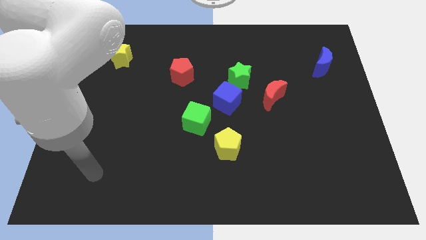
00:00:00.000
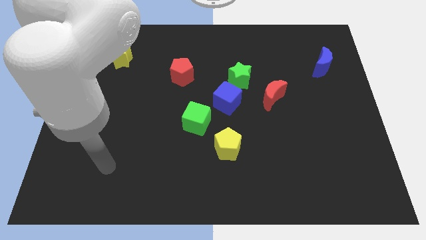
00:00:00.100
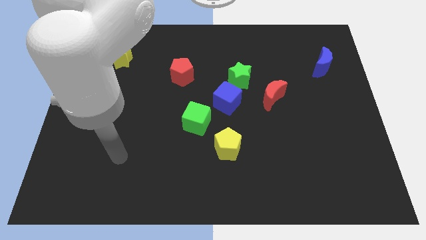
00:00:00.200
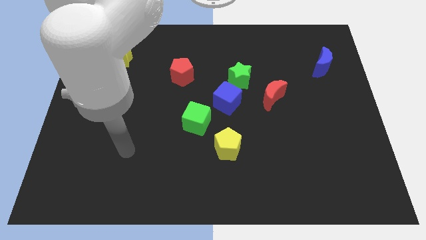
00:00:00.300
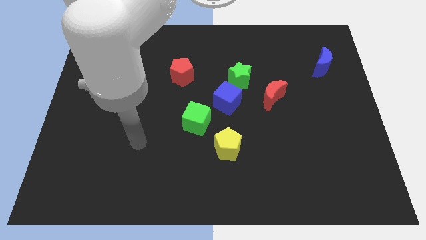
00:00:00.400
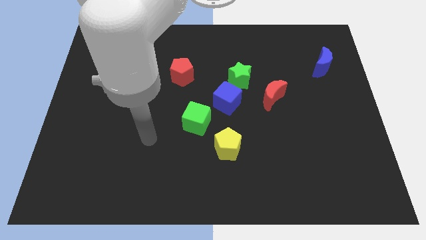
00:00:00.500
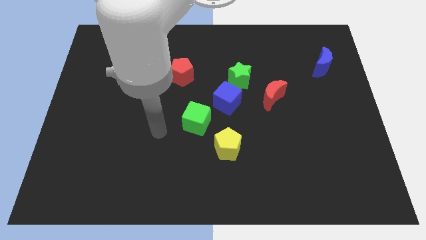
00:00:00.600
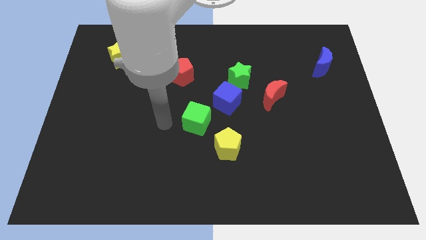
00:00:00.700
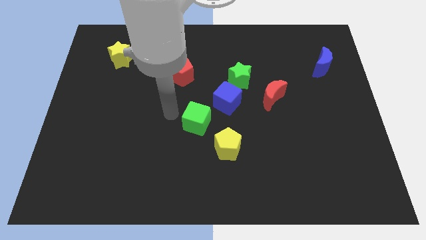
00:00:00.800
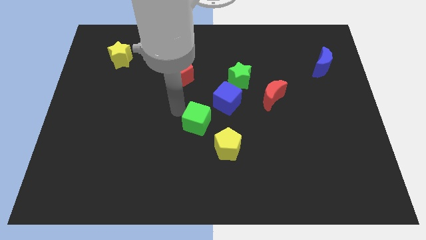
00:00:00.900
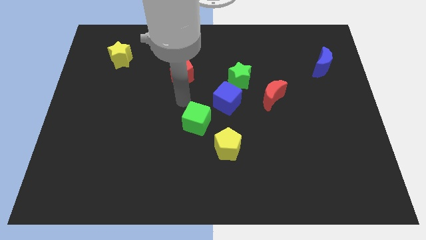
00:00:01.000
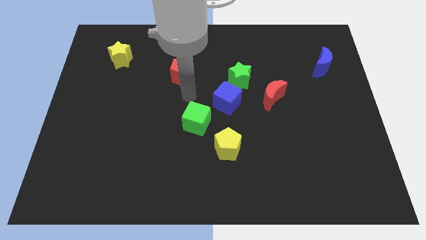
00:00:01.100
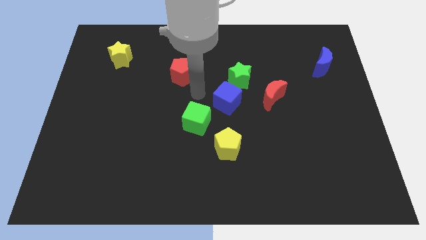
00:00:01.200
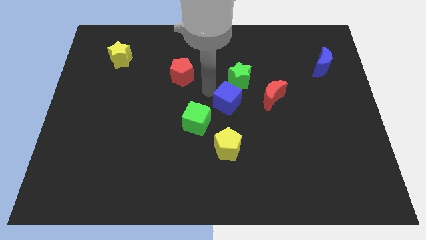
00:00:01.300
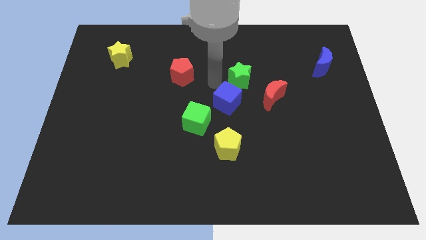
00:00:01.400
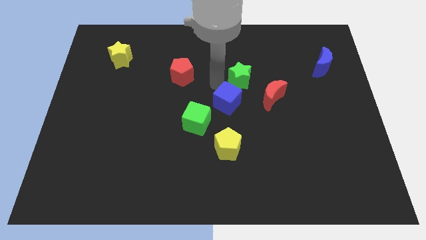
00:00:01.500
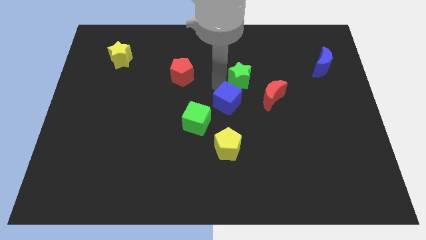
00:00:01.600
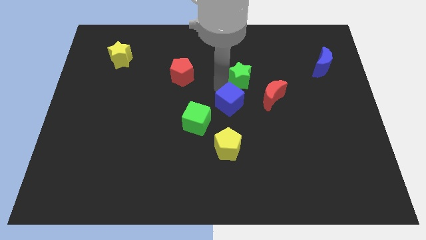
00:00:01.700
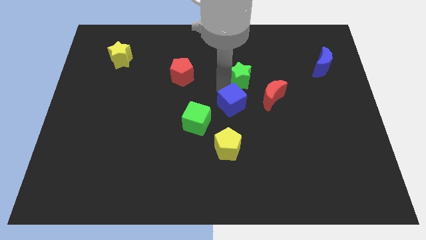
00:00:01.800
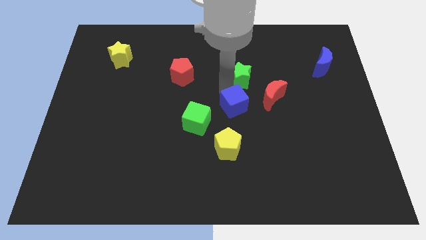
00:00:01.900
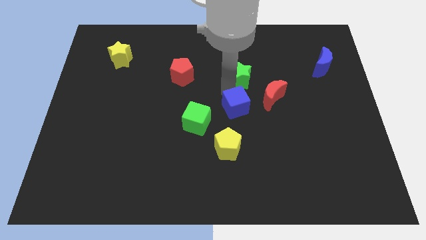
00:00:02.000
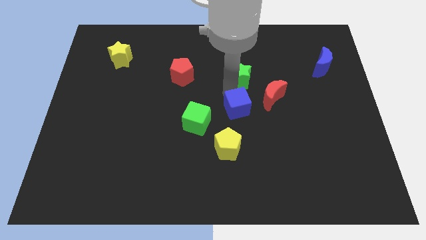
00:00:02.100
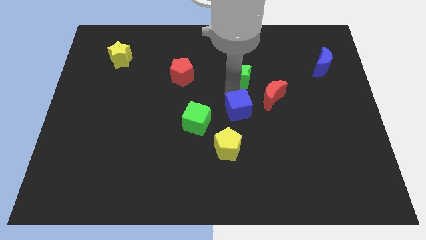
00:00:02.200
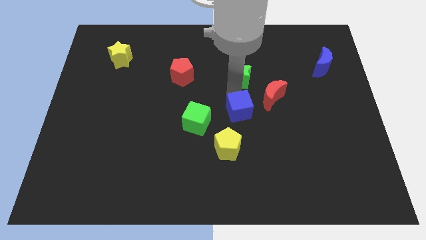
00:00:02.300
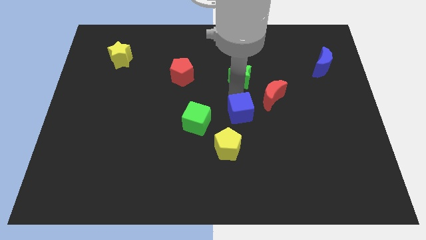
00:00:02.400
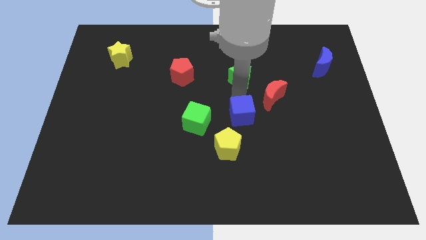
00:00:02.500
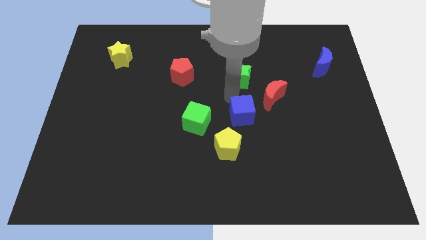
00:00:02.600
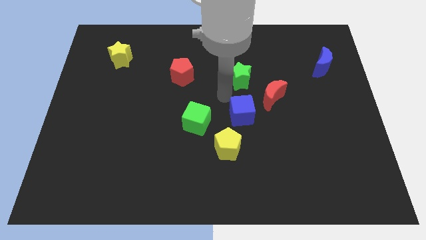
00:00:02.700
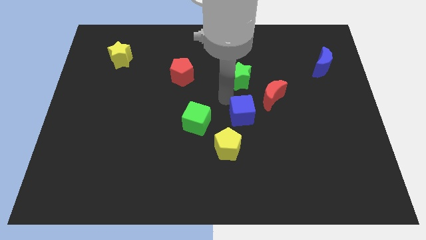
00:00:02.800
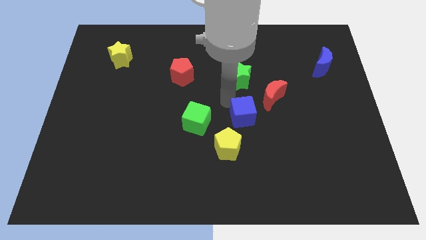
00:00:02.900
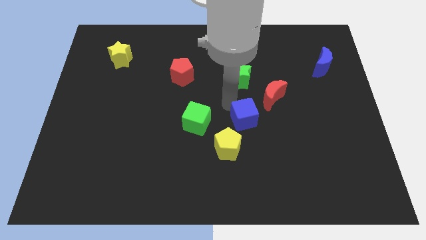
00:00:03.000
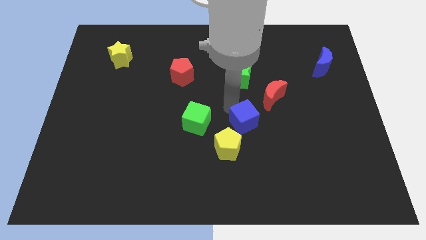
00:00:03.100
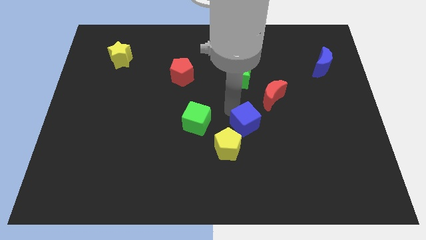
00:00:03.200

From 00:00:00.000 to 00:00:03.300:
move the blue cube downwards and to the right a little

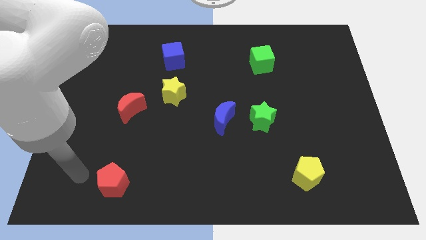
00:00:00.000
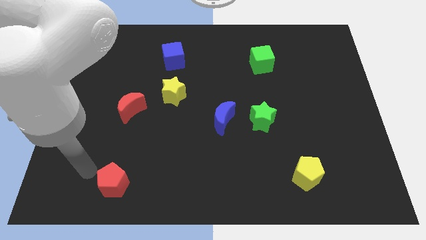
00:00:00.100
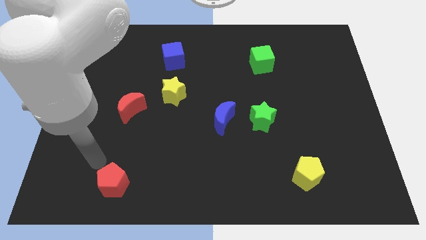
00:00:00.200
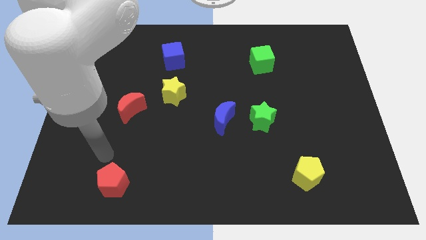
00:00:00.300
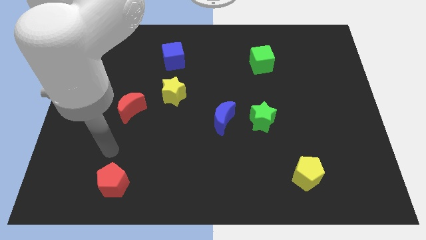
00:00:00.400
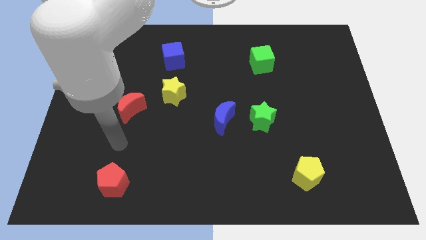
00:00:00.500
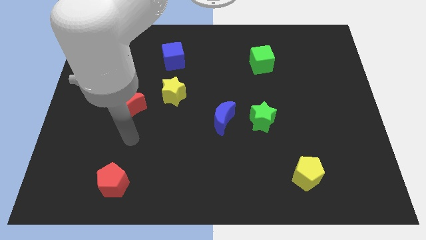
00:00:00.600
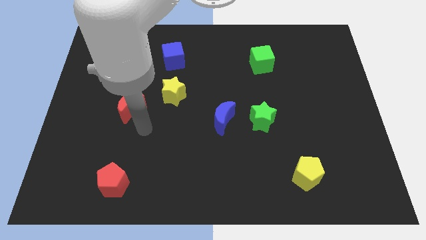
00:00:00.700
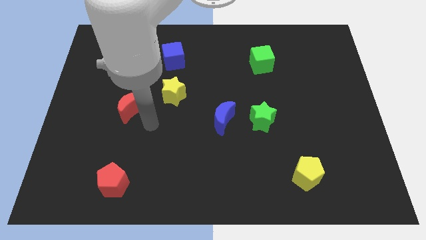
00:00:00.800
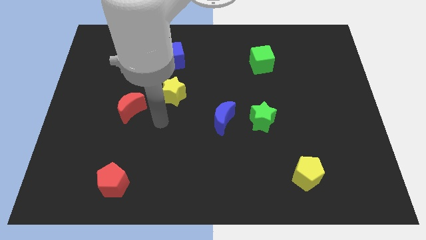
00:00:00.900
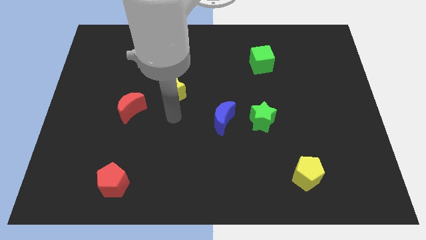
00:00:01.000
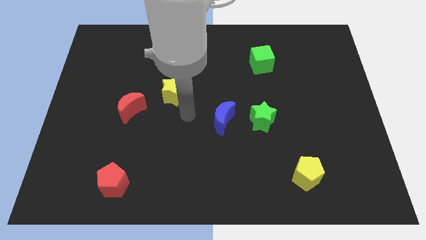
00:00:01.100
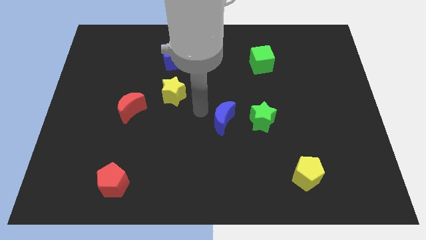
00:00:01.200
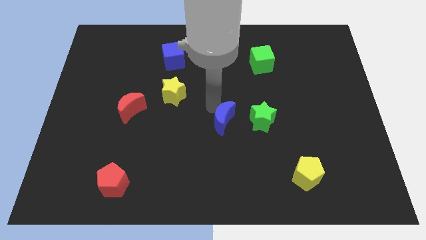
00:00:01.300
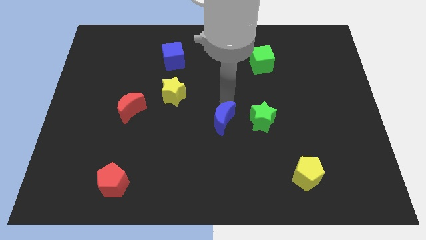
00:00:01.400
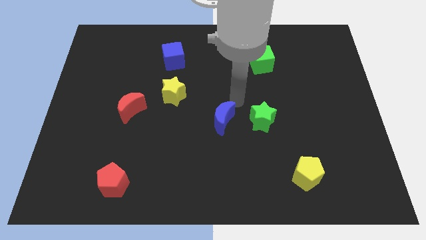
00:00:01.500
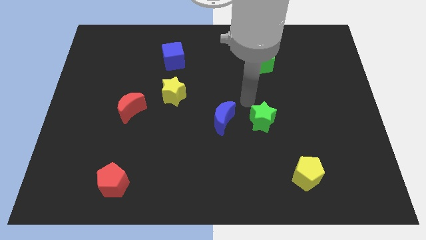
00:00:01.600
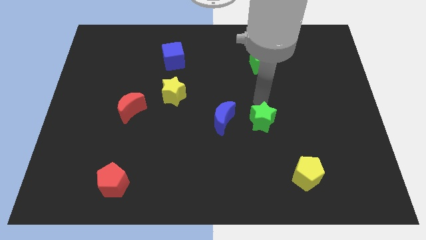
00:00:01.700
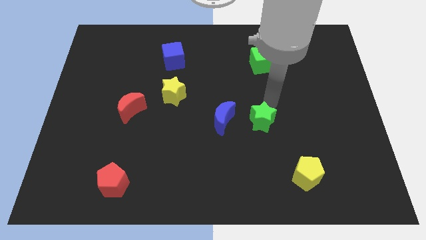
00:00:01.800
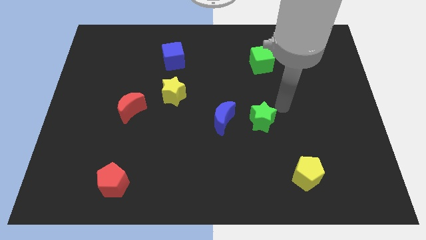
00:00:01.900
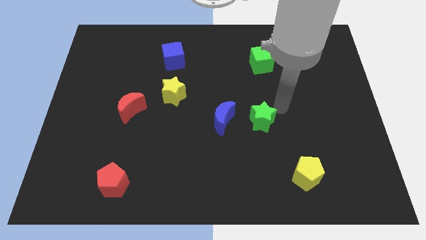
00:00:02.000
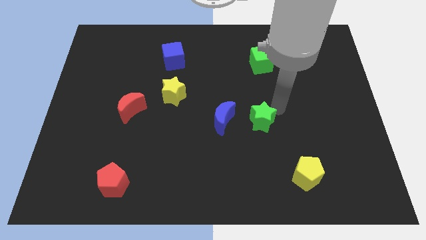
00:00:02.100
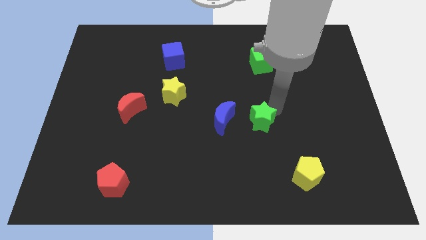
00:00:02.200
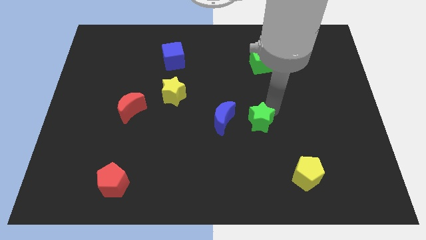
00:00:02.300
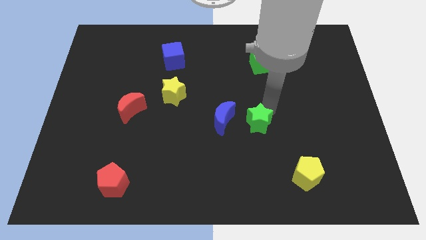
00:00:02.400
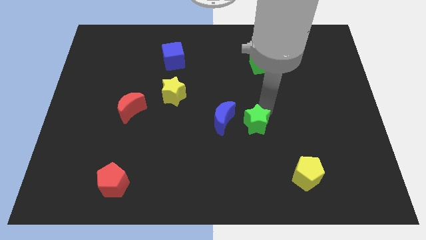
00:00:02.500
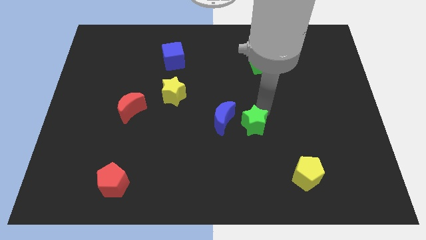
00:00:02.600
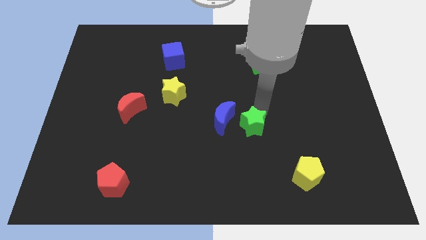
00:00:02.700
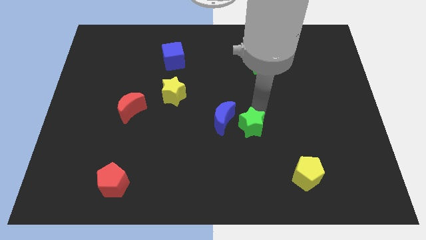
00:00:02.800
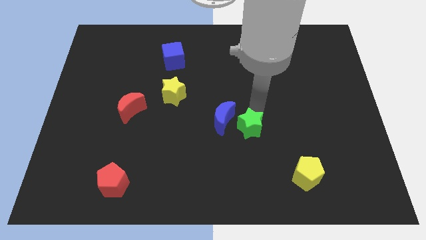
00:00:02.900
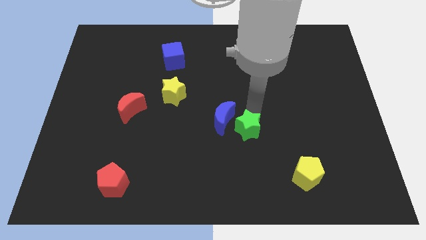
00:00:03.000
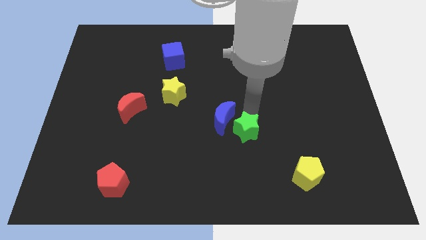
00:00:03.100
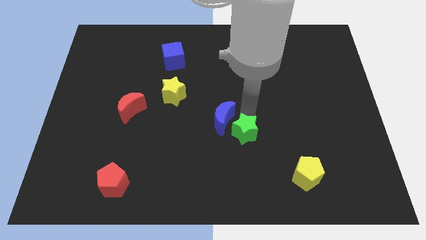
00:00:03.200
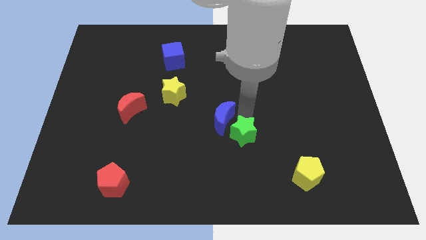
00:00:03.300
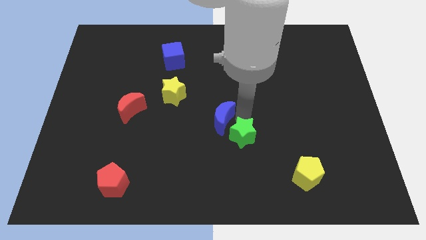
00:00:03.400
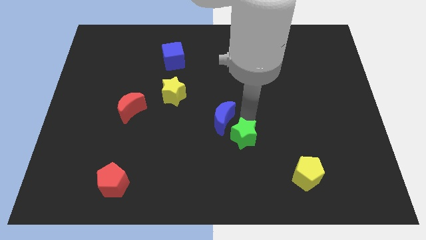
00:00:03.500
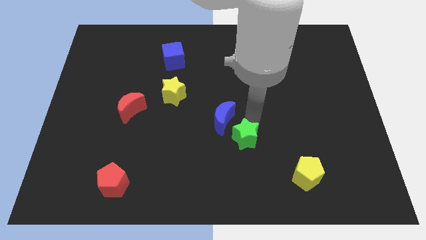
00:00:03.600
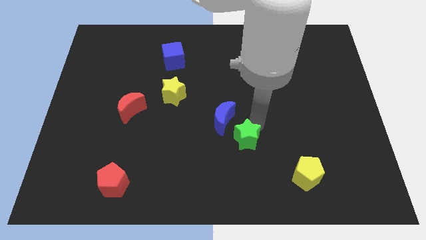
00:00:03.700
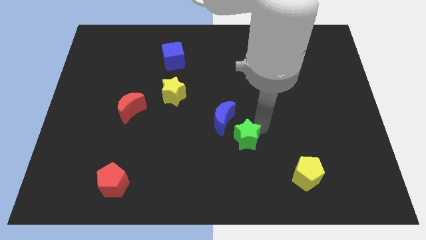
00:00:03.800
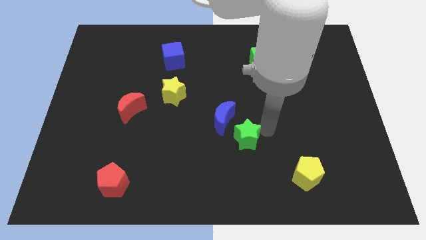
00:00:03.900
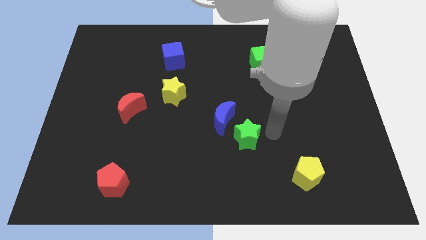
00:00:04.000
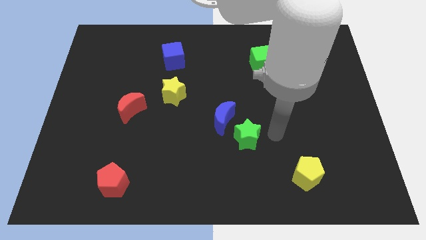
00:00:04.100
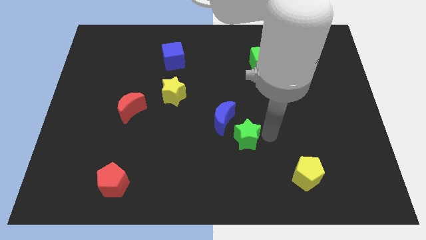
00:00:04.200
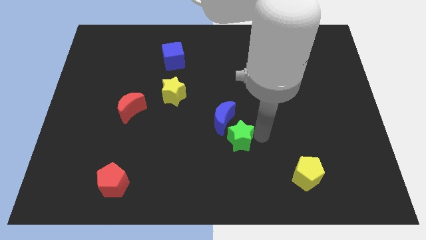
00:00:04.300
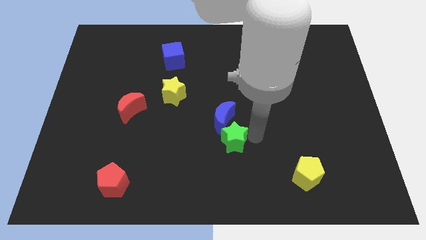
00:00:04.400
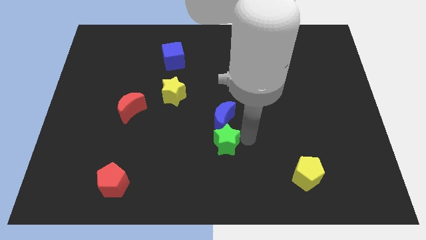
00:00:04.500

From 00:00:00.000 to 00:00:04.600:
push the green star to the left somewhat

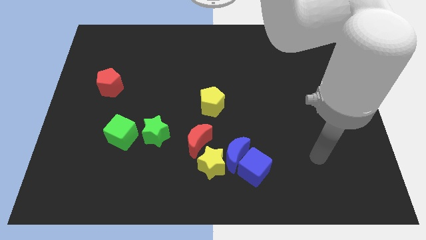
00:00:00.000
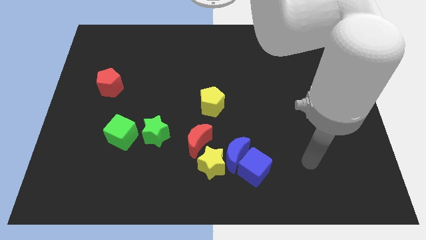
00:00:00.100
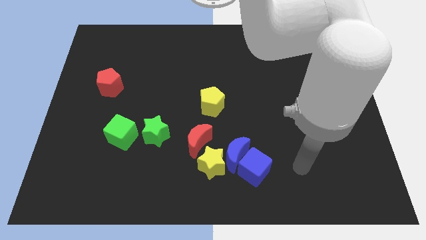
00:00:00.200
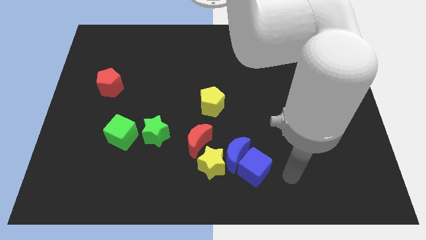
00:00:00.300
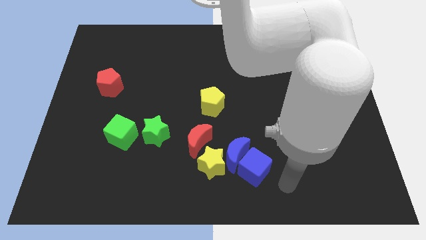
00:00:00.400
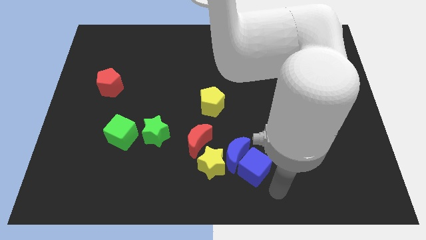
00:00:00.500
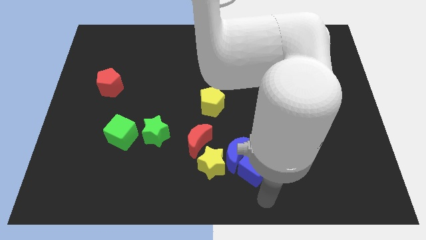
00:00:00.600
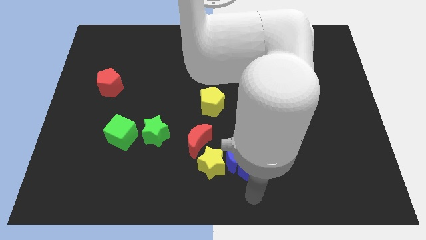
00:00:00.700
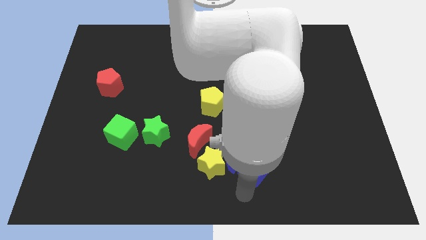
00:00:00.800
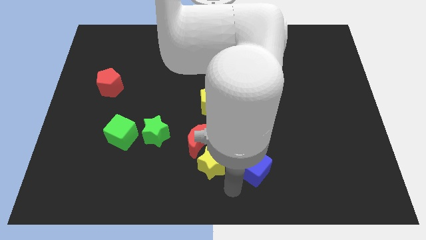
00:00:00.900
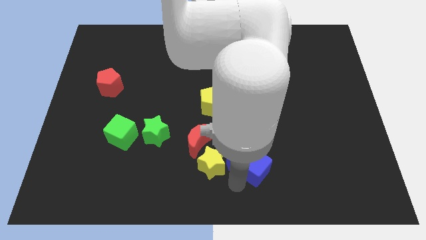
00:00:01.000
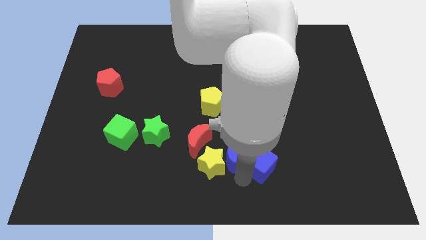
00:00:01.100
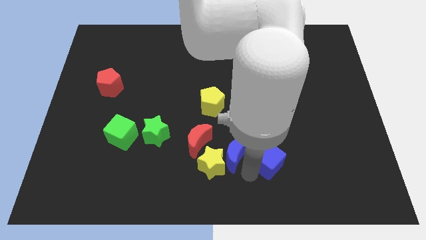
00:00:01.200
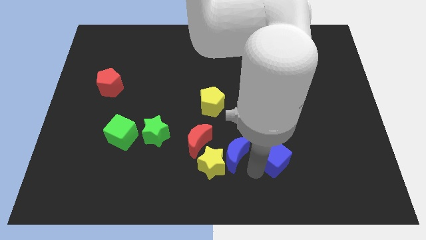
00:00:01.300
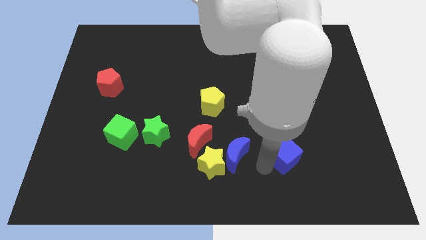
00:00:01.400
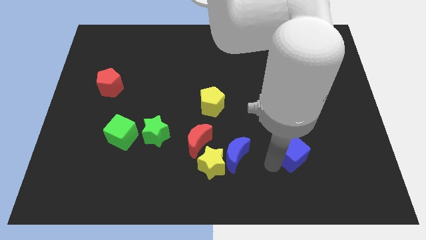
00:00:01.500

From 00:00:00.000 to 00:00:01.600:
push the blue cube diagonally upwards and to the right a bit
